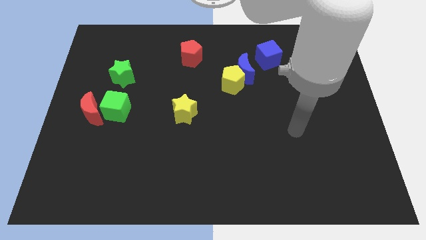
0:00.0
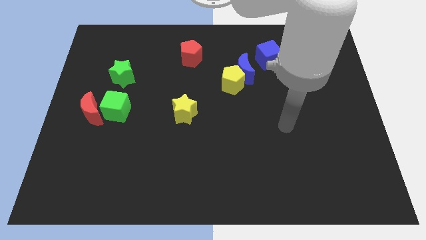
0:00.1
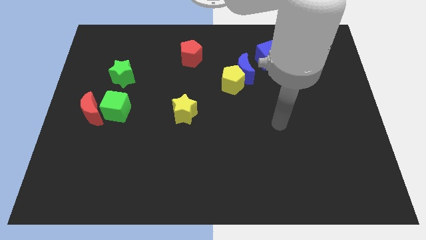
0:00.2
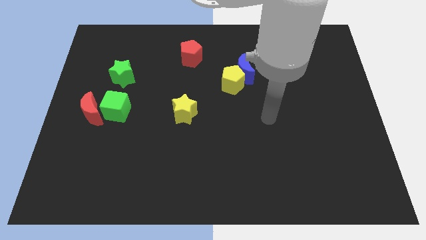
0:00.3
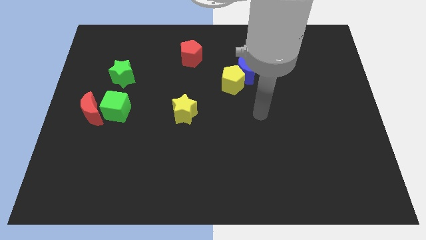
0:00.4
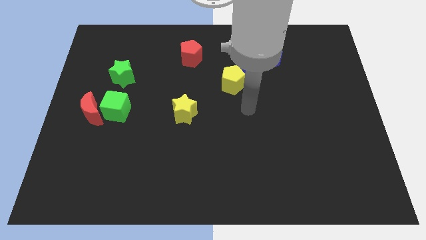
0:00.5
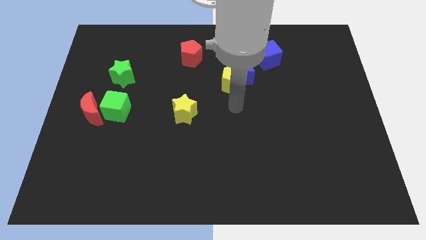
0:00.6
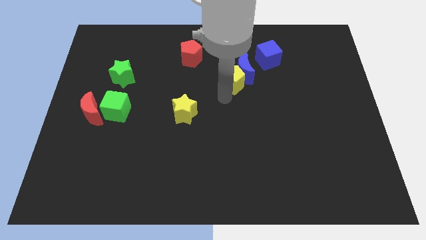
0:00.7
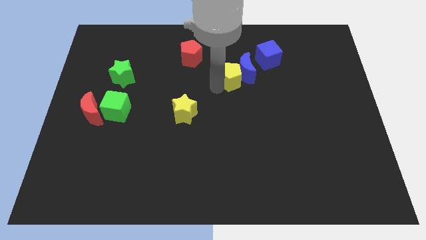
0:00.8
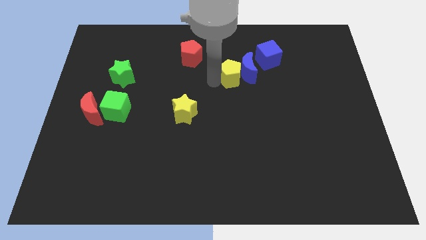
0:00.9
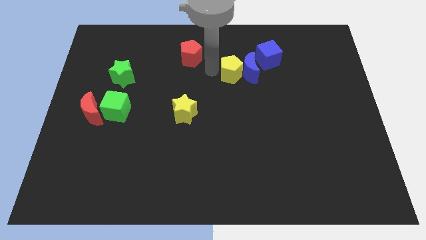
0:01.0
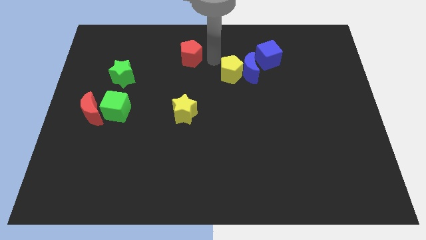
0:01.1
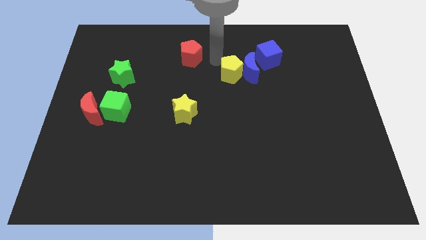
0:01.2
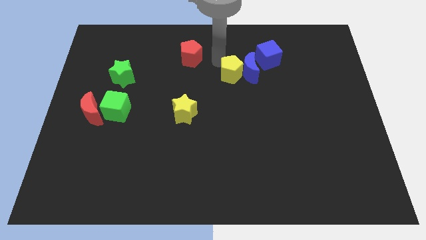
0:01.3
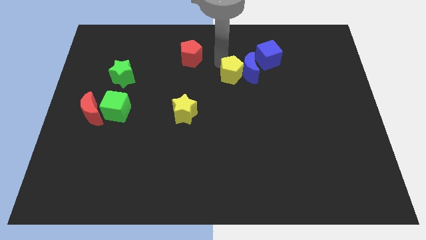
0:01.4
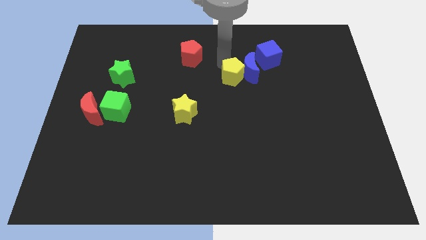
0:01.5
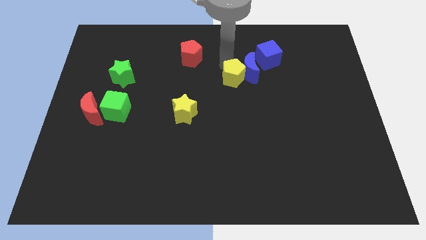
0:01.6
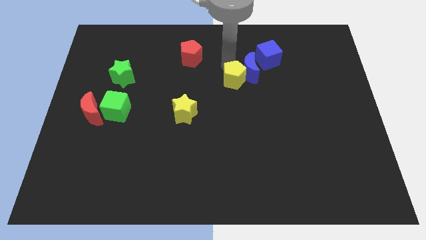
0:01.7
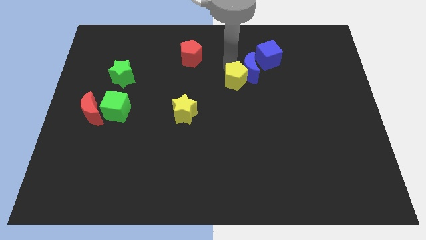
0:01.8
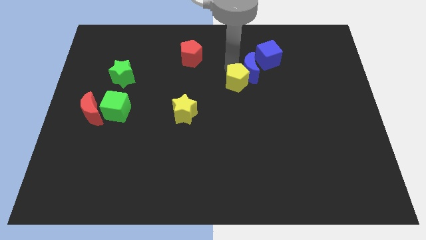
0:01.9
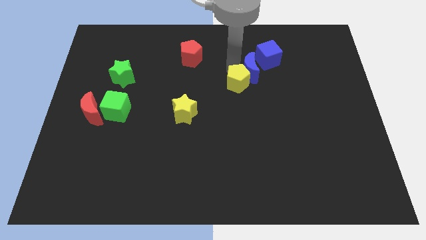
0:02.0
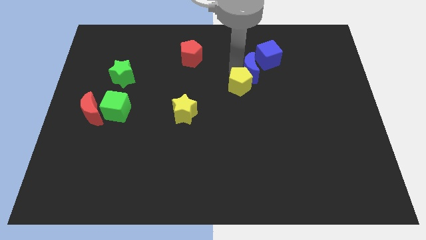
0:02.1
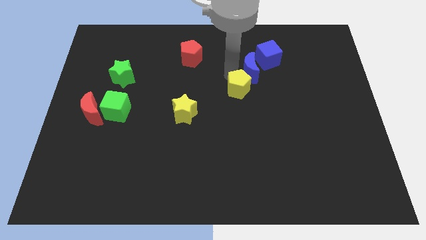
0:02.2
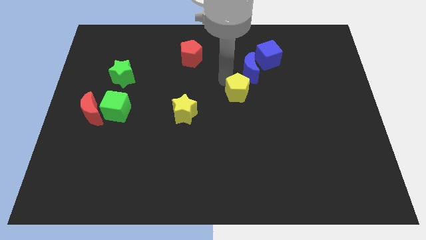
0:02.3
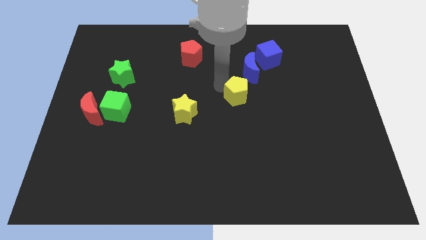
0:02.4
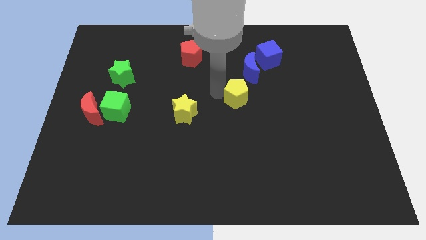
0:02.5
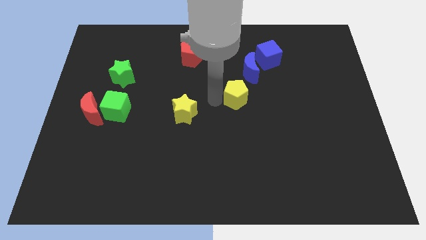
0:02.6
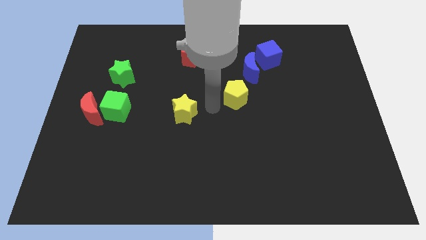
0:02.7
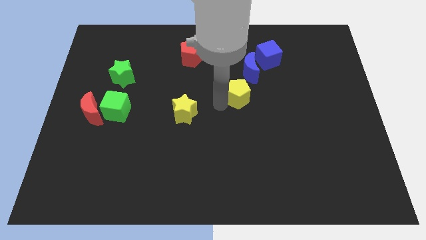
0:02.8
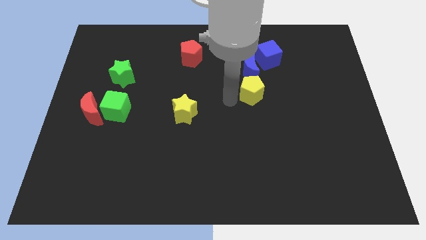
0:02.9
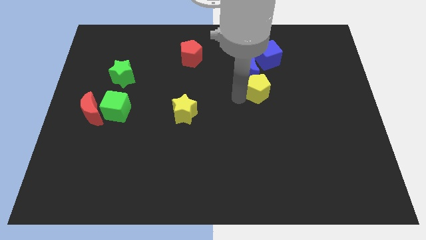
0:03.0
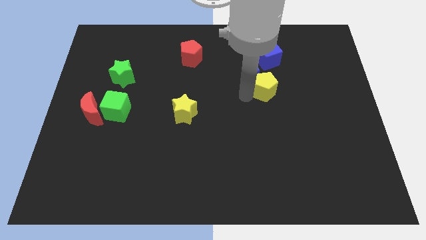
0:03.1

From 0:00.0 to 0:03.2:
slightly slide the yellow pentagon to the right

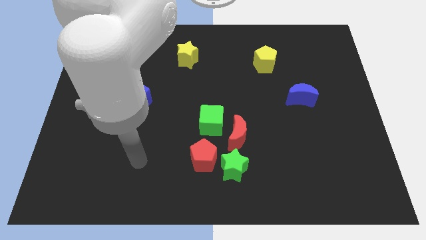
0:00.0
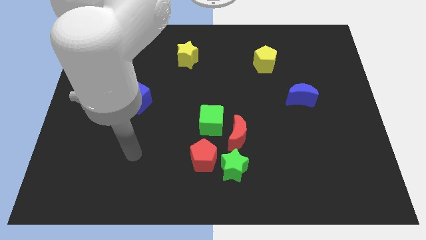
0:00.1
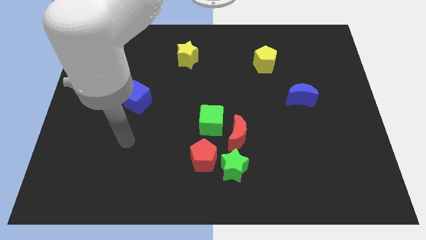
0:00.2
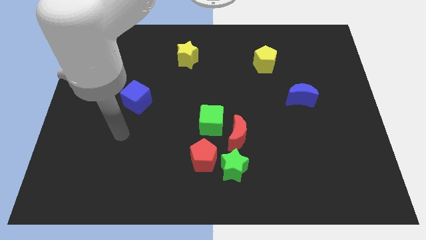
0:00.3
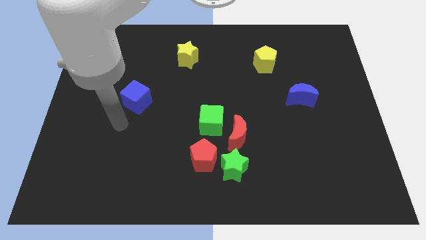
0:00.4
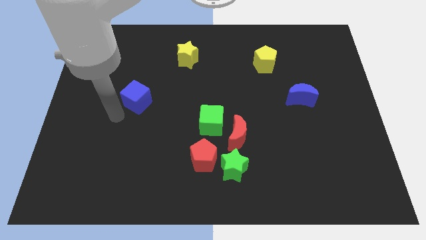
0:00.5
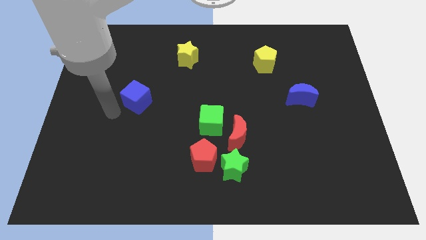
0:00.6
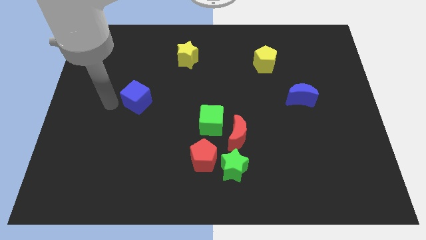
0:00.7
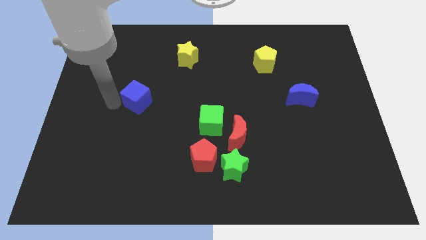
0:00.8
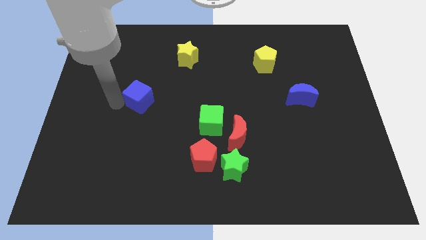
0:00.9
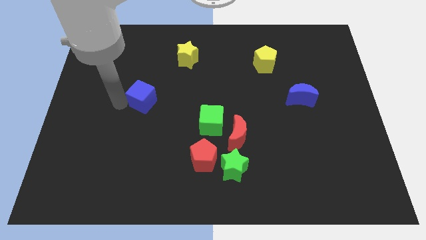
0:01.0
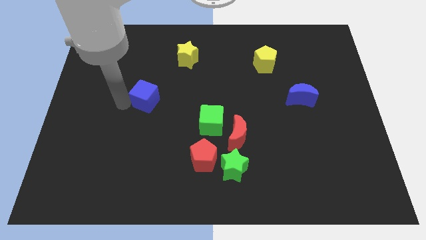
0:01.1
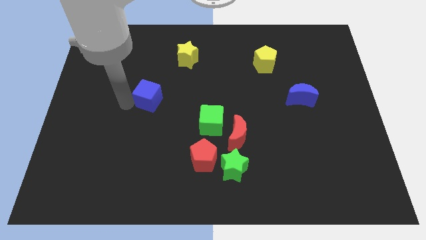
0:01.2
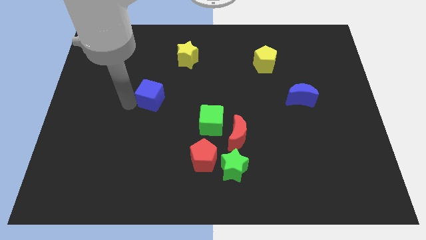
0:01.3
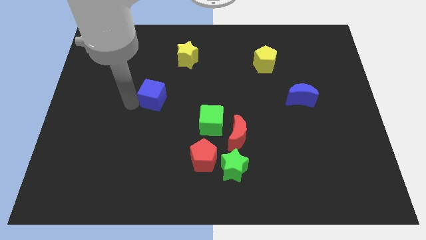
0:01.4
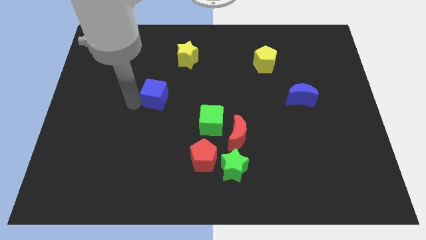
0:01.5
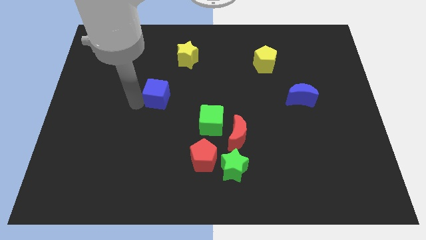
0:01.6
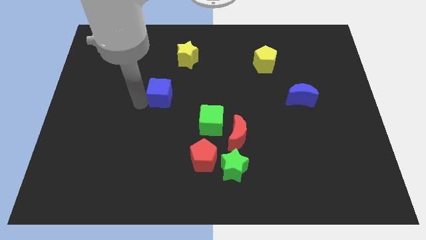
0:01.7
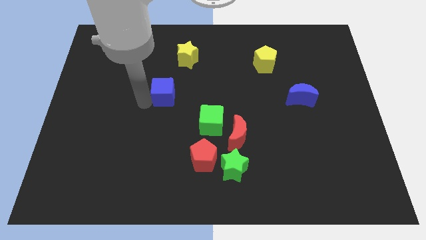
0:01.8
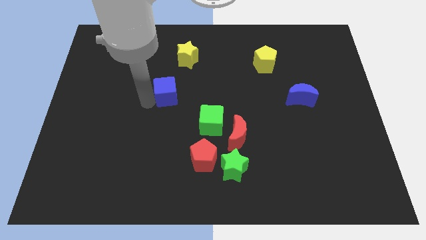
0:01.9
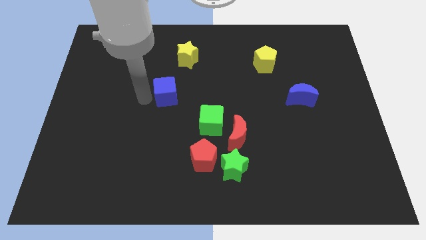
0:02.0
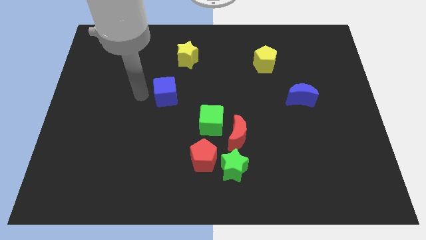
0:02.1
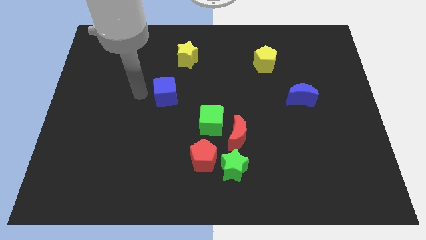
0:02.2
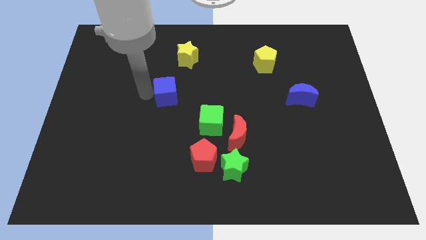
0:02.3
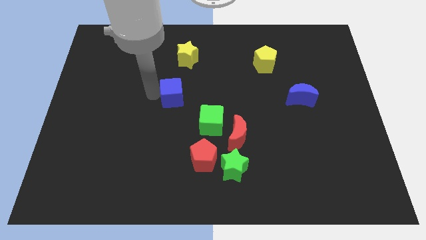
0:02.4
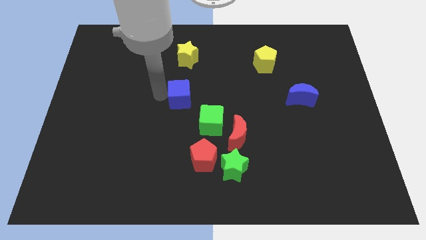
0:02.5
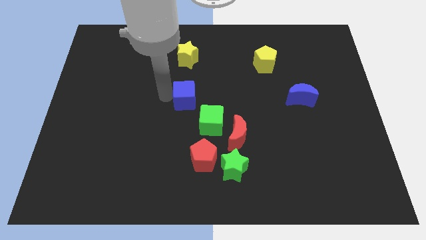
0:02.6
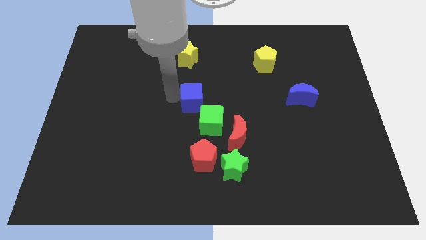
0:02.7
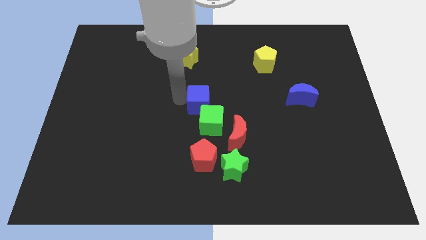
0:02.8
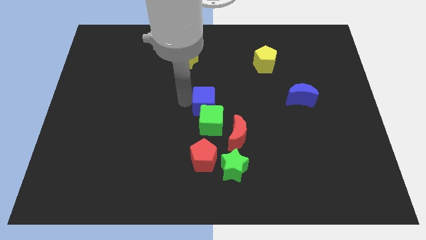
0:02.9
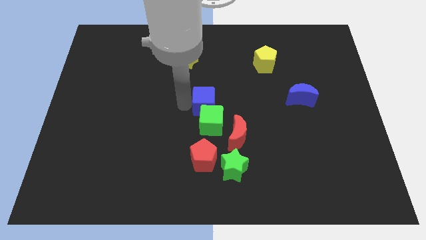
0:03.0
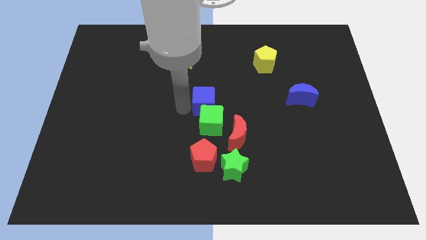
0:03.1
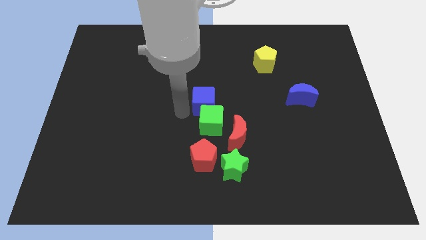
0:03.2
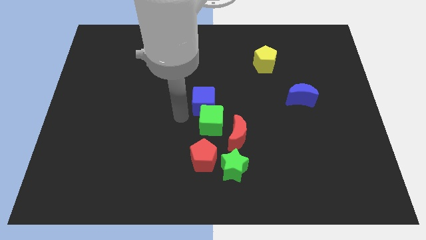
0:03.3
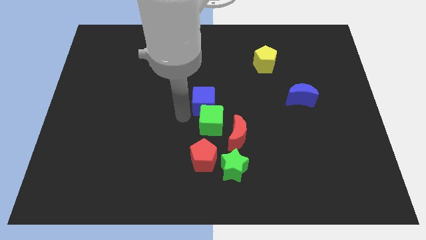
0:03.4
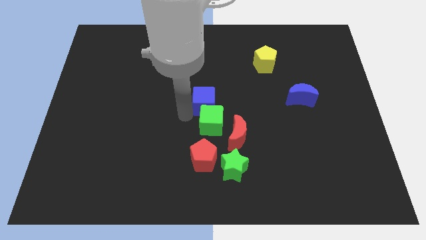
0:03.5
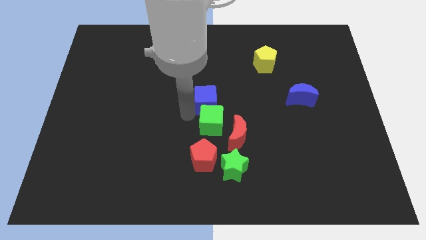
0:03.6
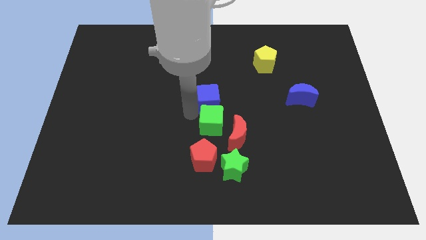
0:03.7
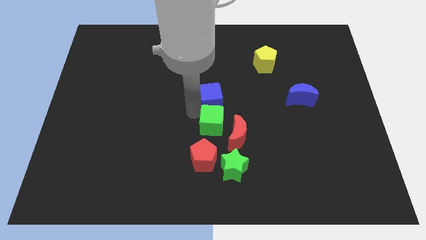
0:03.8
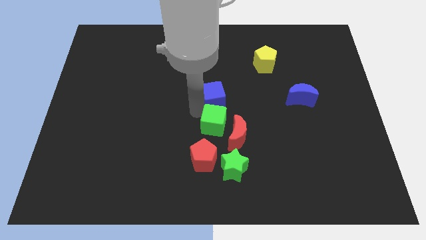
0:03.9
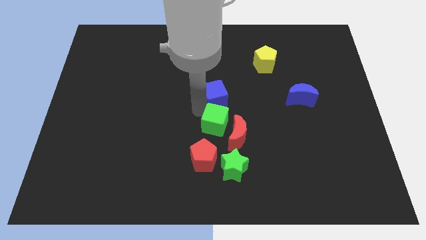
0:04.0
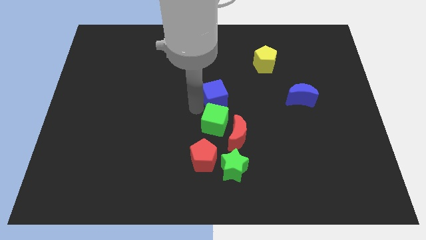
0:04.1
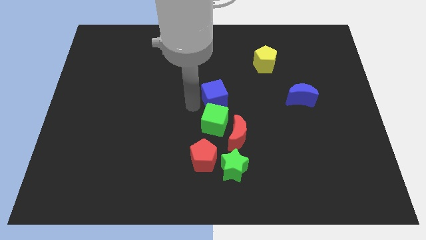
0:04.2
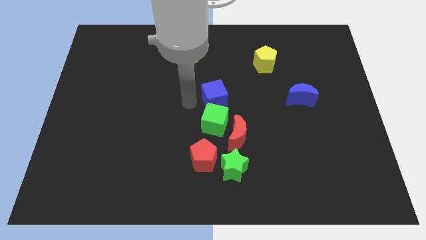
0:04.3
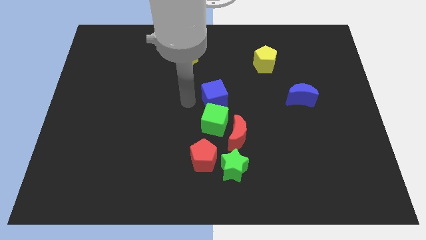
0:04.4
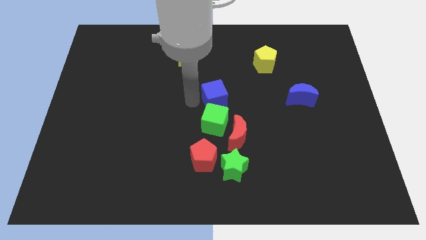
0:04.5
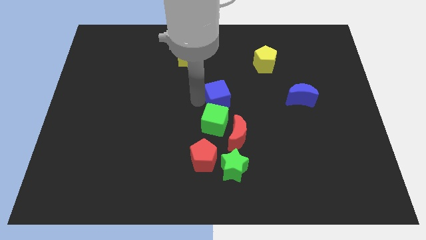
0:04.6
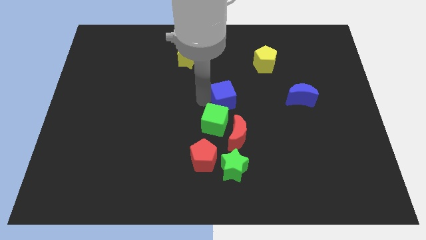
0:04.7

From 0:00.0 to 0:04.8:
push the blue cube right
